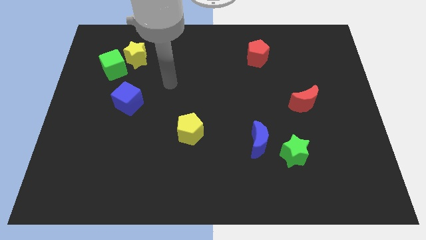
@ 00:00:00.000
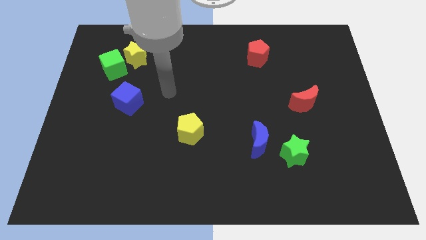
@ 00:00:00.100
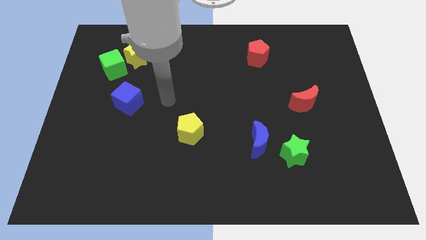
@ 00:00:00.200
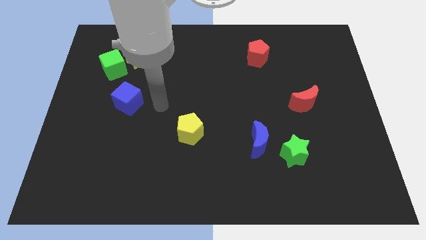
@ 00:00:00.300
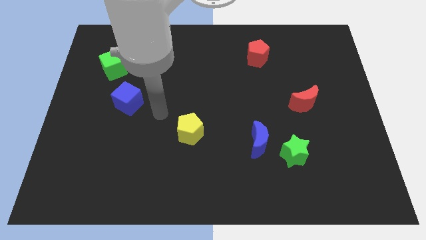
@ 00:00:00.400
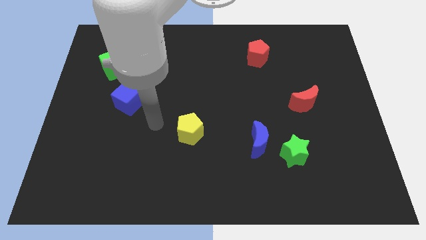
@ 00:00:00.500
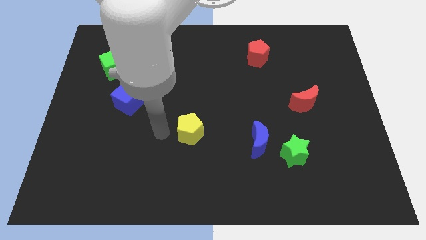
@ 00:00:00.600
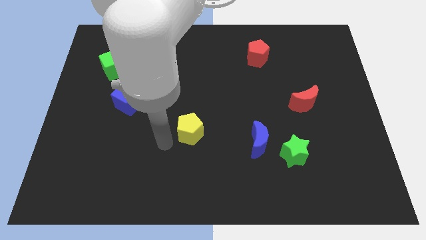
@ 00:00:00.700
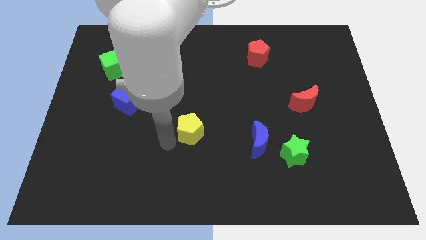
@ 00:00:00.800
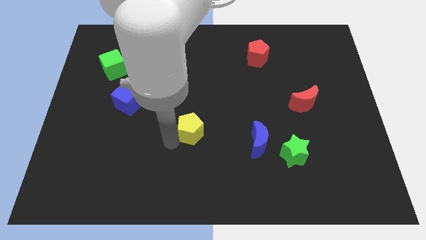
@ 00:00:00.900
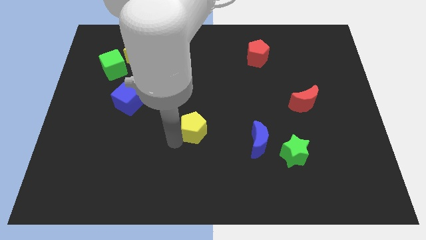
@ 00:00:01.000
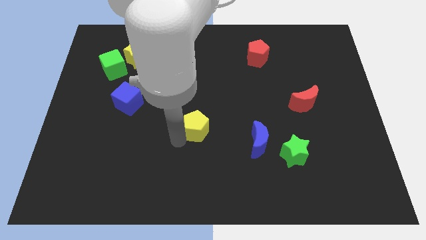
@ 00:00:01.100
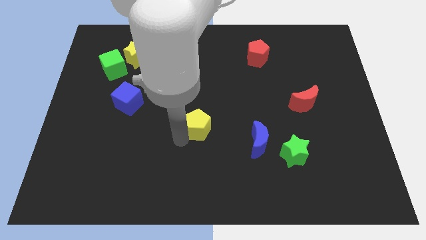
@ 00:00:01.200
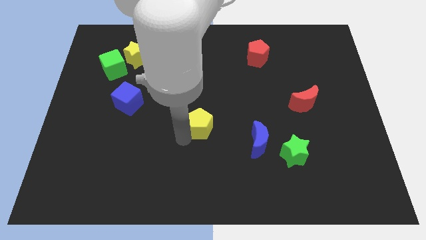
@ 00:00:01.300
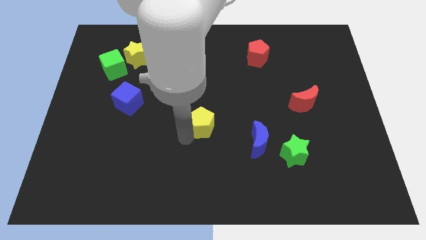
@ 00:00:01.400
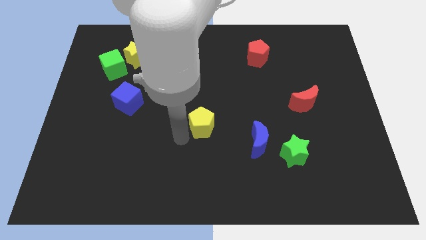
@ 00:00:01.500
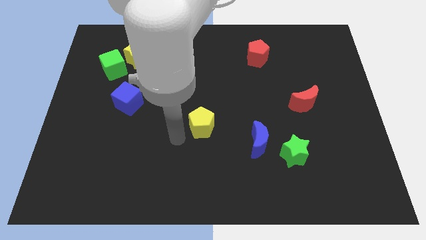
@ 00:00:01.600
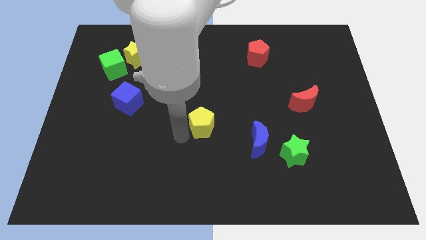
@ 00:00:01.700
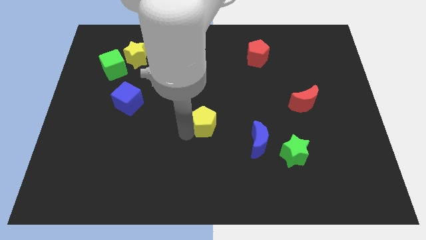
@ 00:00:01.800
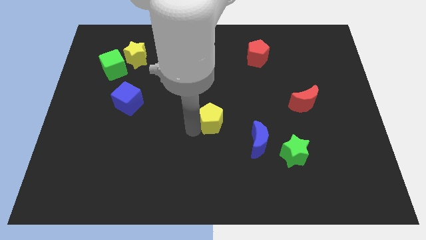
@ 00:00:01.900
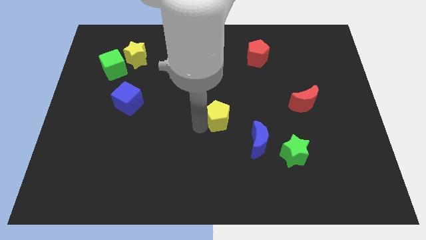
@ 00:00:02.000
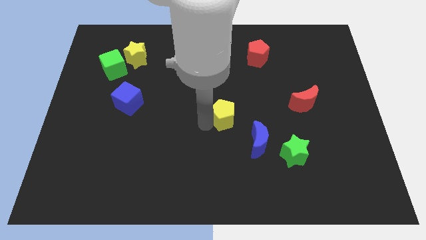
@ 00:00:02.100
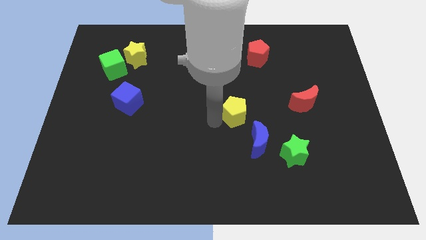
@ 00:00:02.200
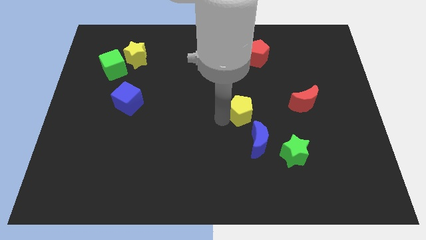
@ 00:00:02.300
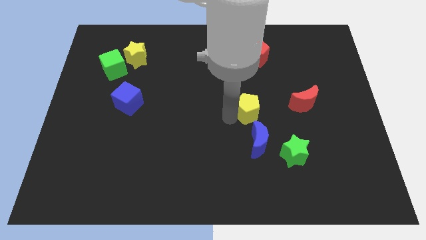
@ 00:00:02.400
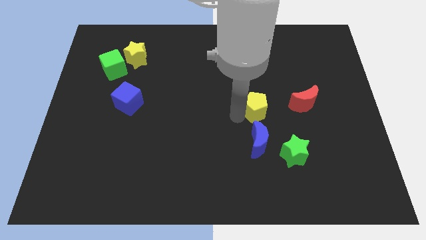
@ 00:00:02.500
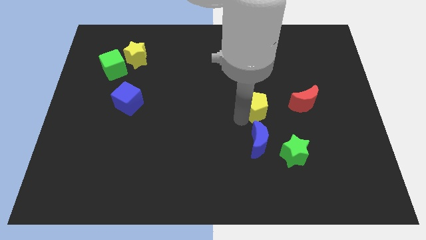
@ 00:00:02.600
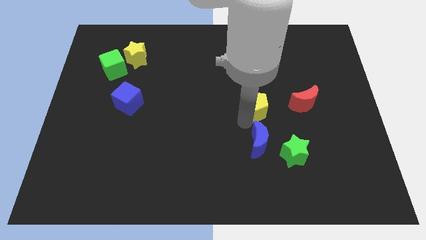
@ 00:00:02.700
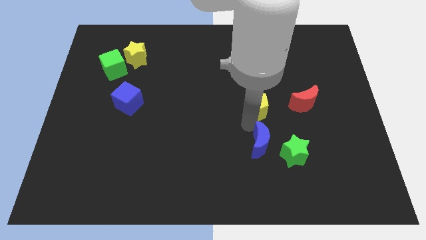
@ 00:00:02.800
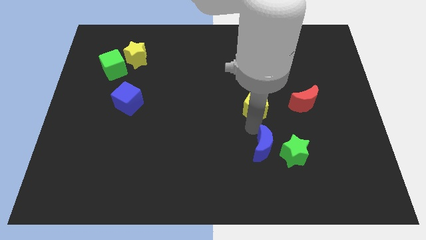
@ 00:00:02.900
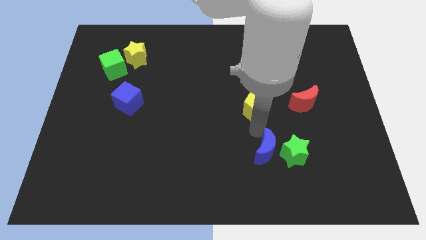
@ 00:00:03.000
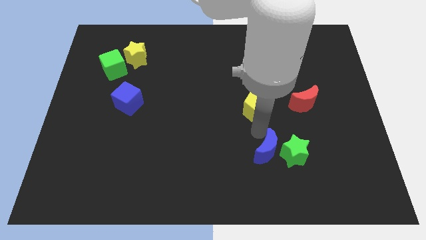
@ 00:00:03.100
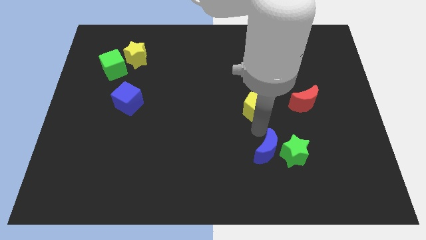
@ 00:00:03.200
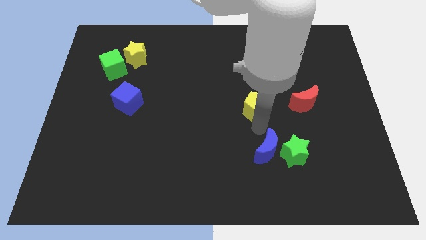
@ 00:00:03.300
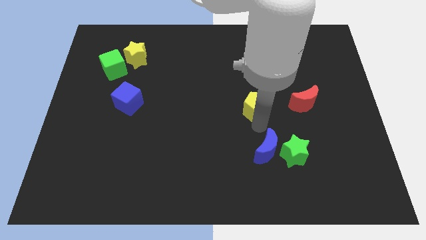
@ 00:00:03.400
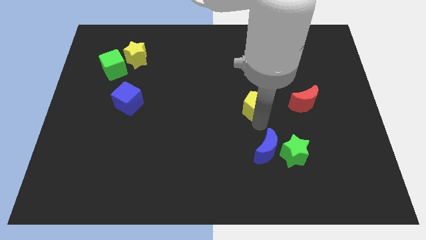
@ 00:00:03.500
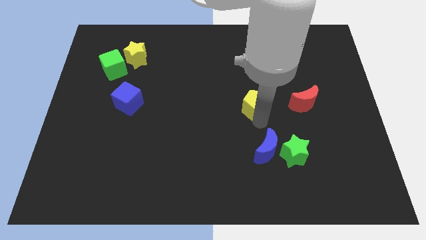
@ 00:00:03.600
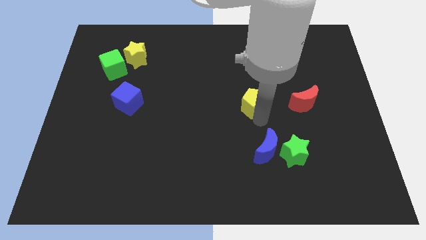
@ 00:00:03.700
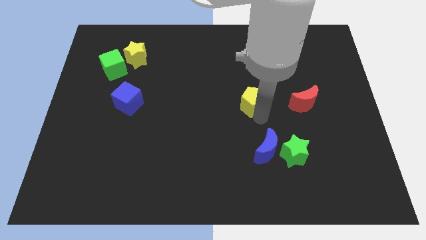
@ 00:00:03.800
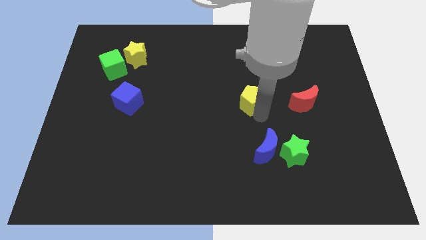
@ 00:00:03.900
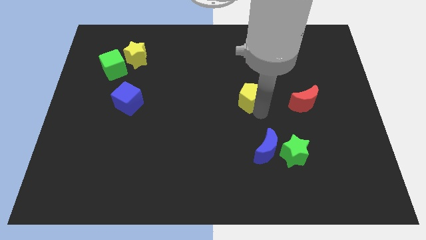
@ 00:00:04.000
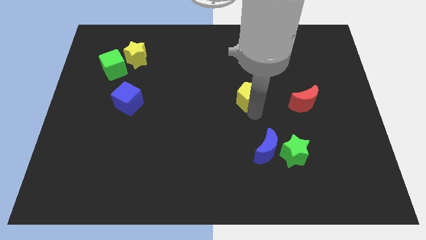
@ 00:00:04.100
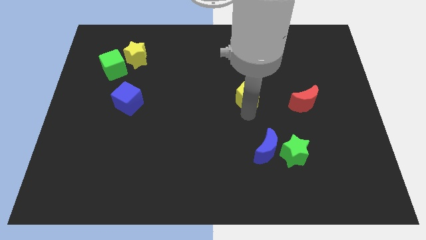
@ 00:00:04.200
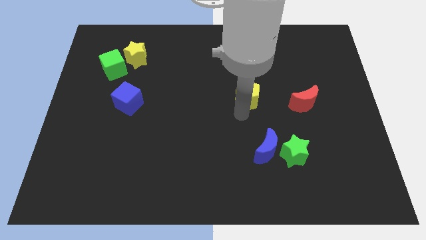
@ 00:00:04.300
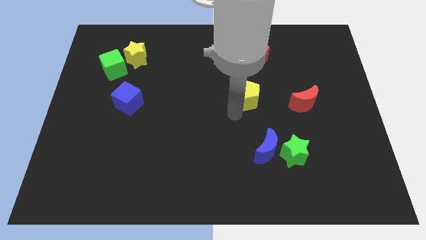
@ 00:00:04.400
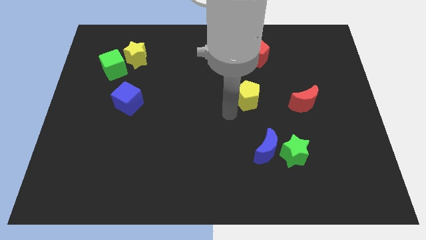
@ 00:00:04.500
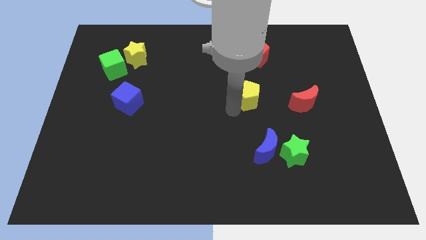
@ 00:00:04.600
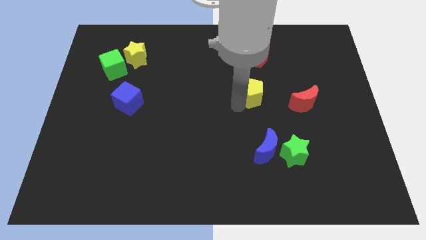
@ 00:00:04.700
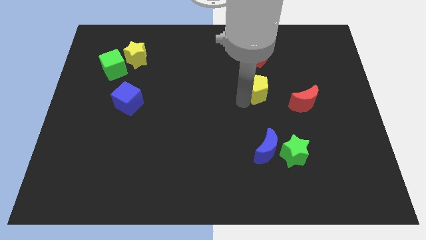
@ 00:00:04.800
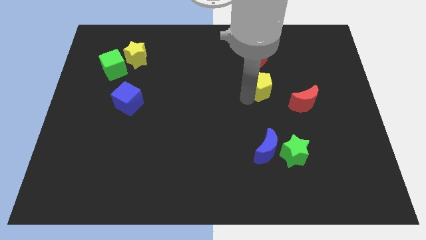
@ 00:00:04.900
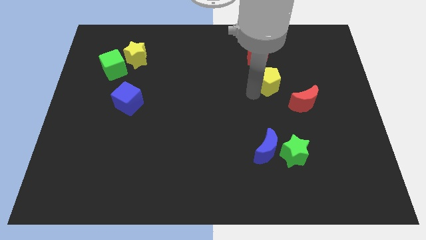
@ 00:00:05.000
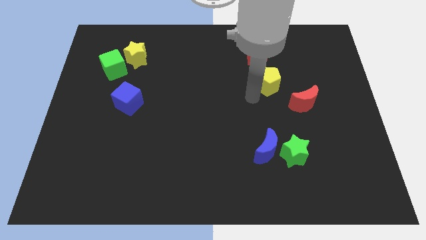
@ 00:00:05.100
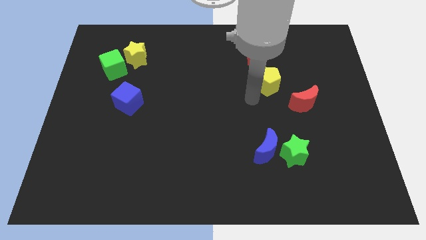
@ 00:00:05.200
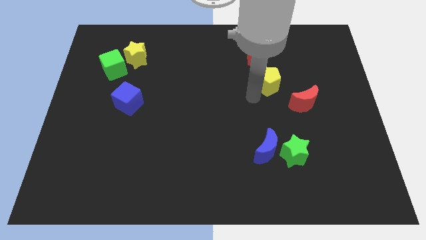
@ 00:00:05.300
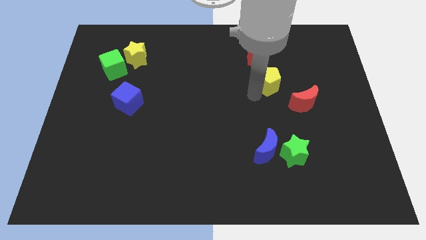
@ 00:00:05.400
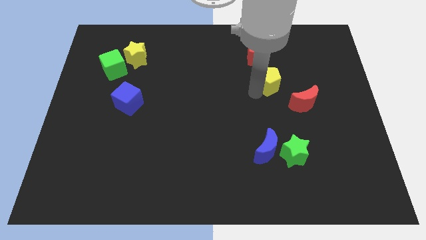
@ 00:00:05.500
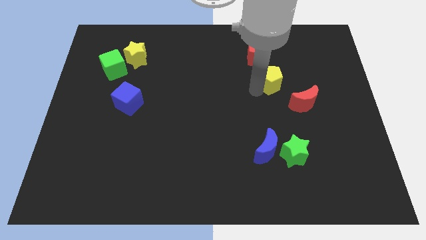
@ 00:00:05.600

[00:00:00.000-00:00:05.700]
push the yellow pentagon to the bottom right side of the red pentagon

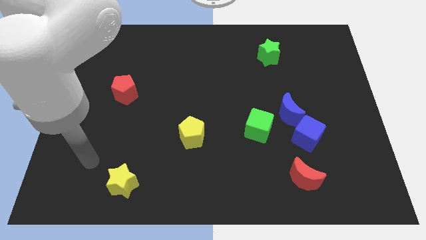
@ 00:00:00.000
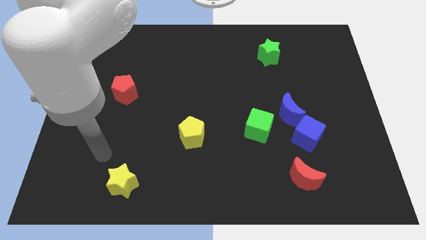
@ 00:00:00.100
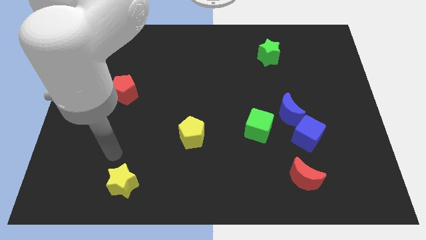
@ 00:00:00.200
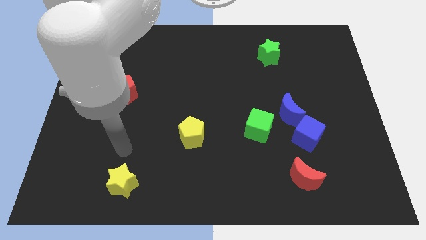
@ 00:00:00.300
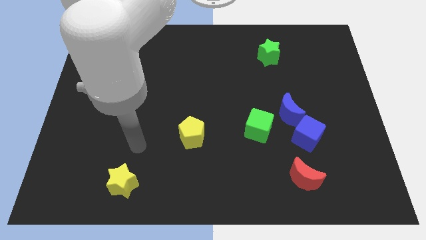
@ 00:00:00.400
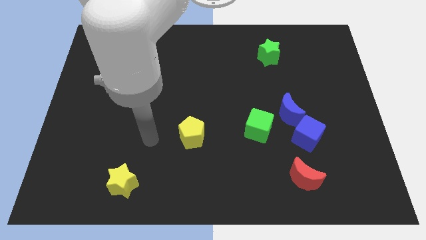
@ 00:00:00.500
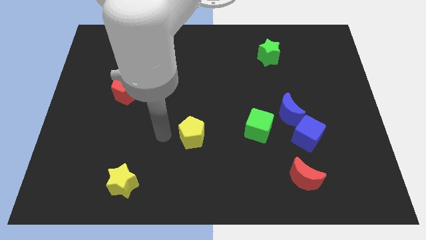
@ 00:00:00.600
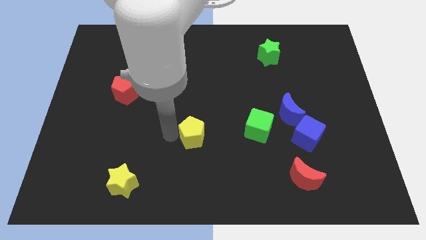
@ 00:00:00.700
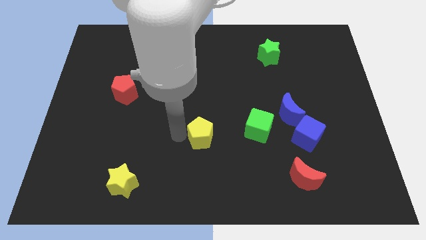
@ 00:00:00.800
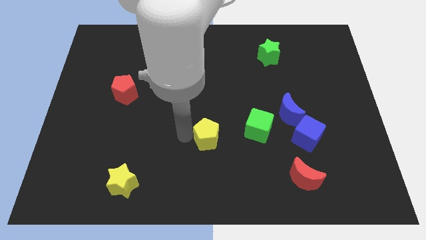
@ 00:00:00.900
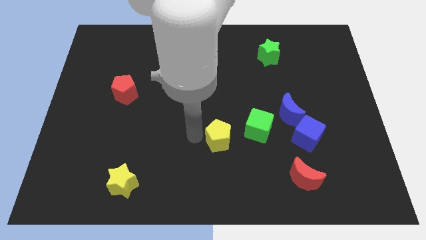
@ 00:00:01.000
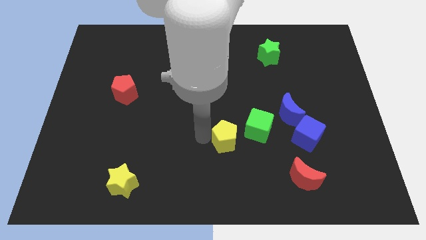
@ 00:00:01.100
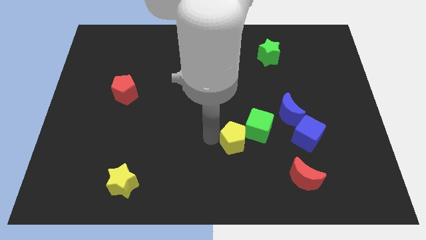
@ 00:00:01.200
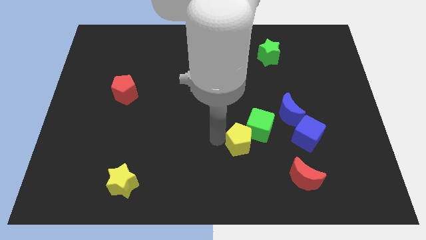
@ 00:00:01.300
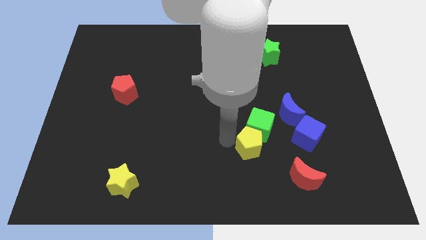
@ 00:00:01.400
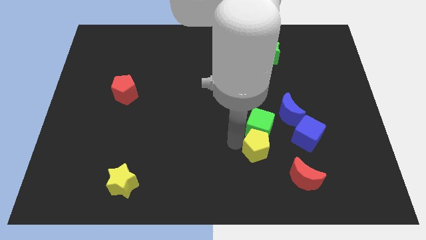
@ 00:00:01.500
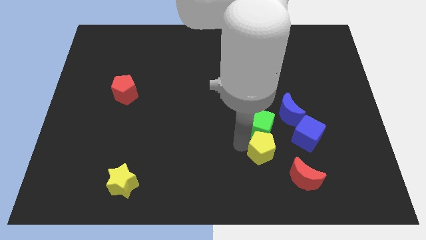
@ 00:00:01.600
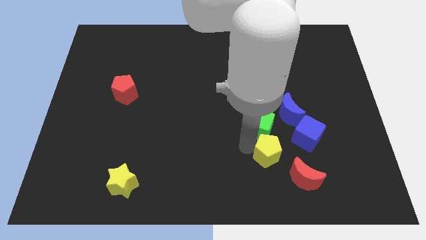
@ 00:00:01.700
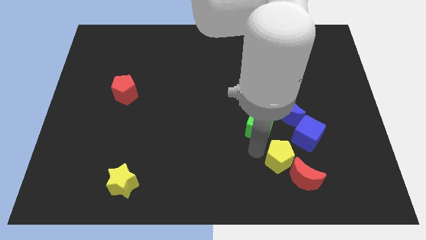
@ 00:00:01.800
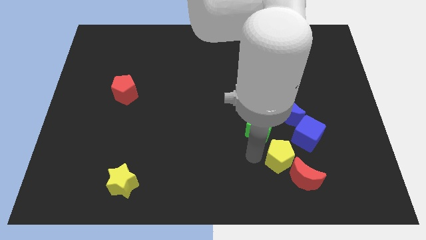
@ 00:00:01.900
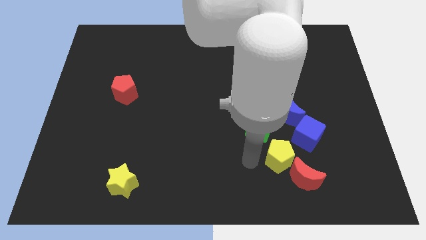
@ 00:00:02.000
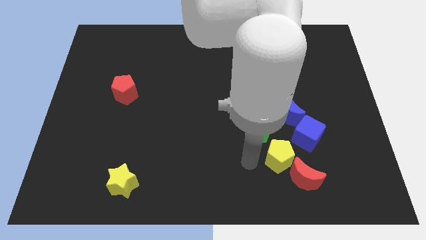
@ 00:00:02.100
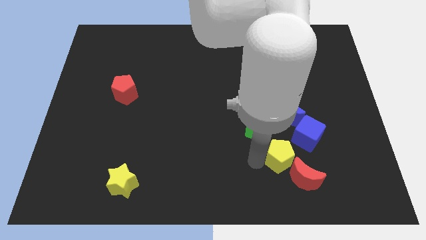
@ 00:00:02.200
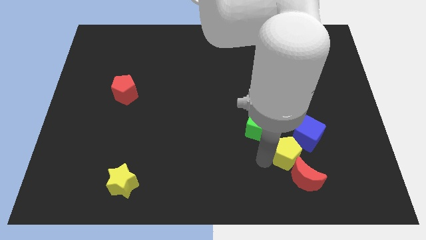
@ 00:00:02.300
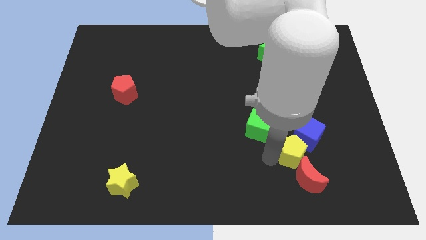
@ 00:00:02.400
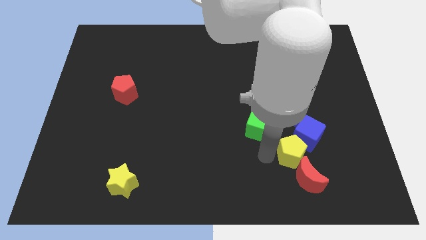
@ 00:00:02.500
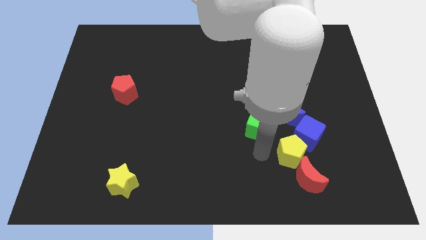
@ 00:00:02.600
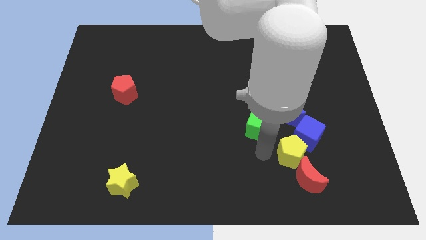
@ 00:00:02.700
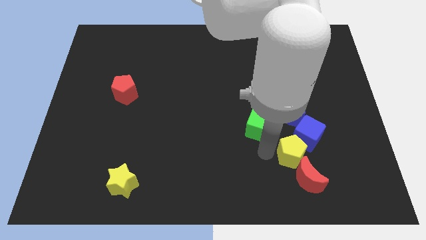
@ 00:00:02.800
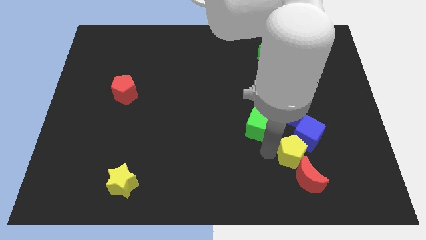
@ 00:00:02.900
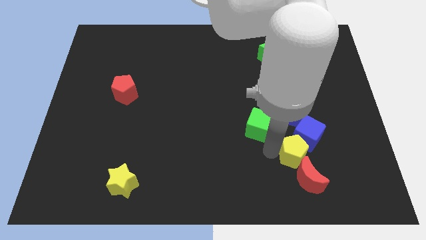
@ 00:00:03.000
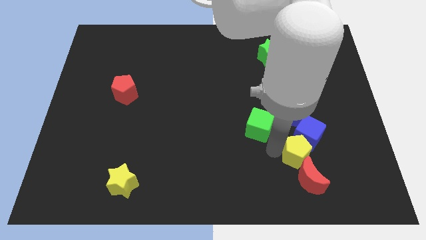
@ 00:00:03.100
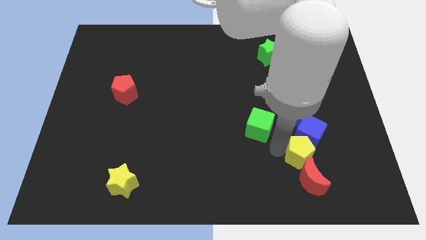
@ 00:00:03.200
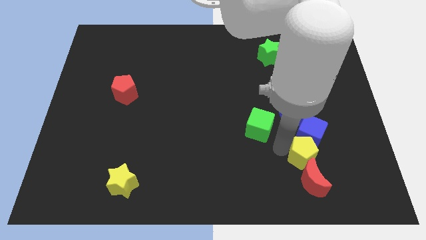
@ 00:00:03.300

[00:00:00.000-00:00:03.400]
move the yellow pentagon diagonally up and to the right of the red moon
